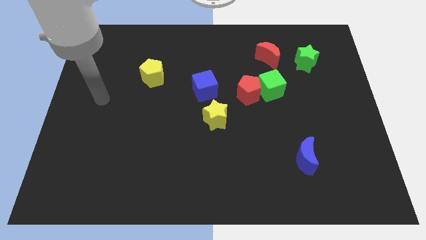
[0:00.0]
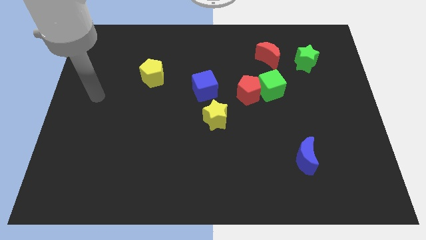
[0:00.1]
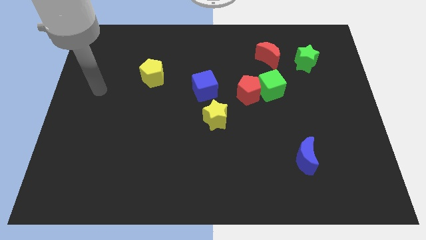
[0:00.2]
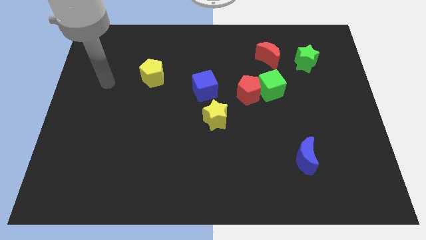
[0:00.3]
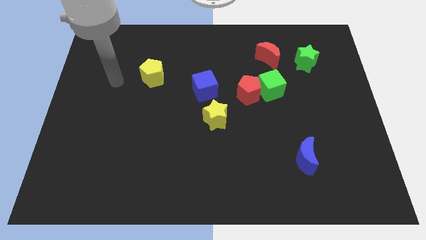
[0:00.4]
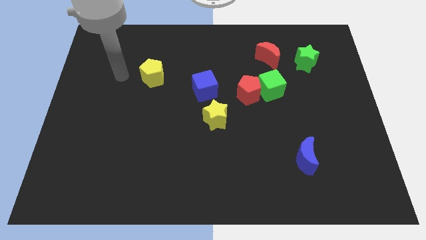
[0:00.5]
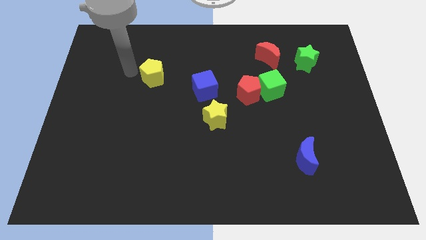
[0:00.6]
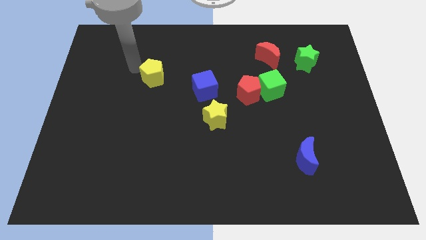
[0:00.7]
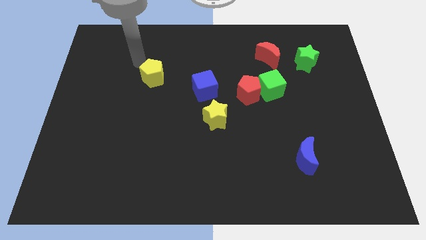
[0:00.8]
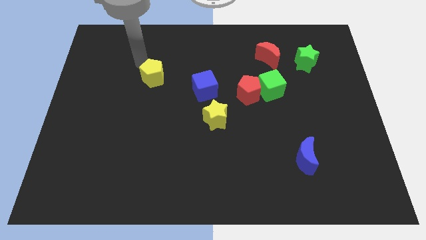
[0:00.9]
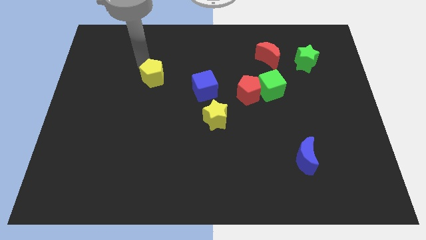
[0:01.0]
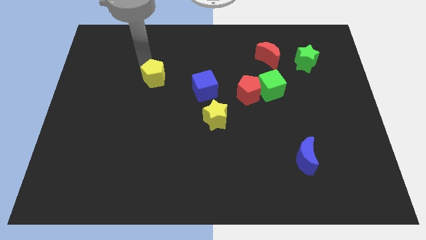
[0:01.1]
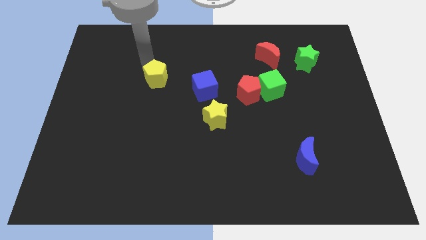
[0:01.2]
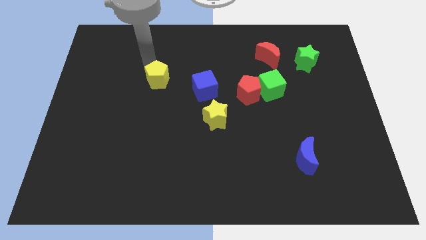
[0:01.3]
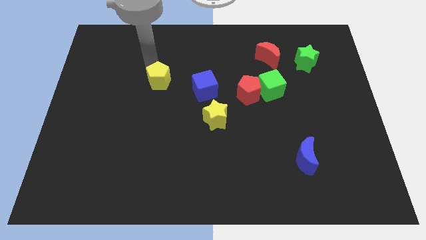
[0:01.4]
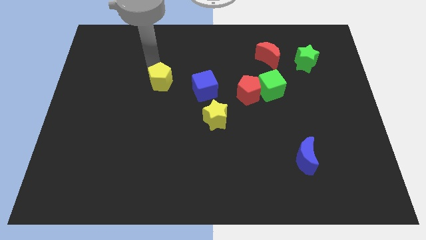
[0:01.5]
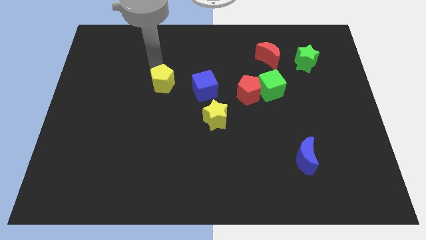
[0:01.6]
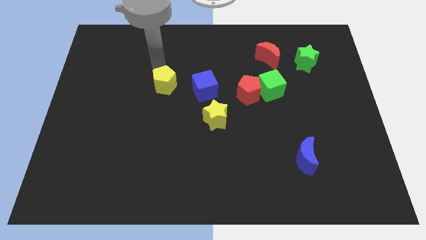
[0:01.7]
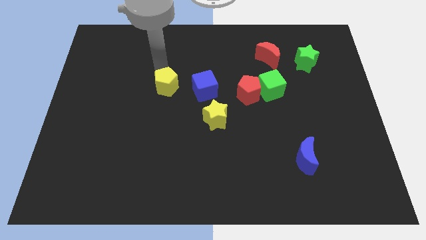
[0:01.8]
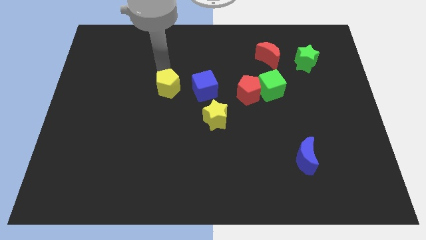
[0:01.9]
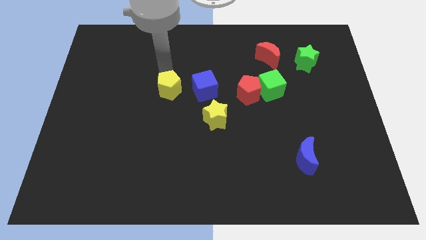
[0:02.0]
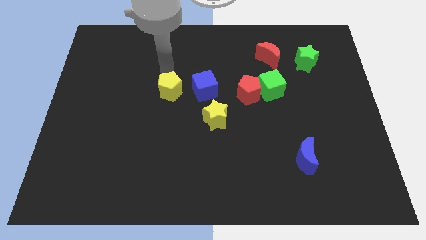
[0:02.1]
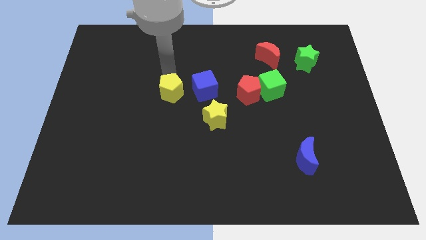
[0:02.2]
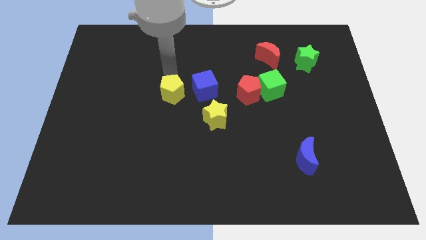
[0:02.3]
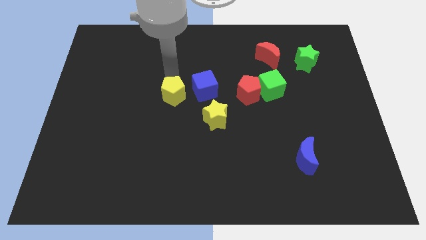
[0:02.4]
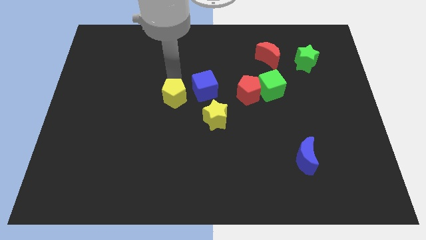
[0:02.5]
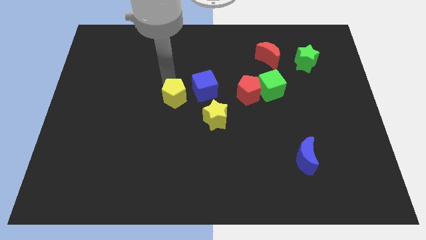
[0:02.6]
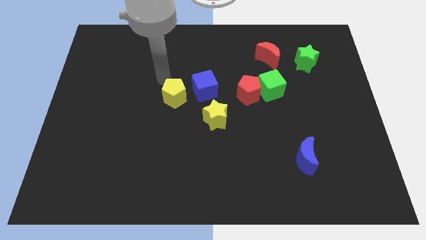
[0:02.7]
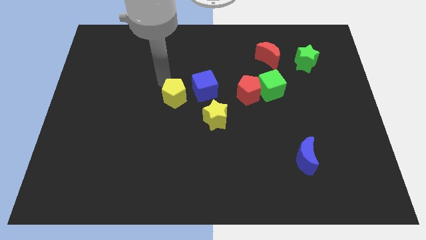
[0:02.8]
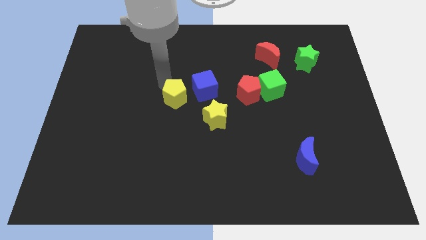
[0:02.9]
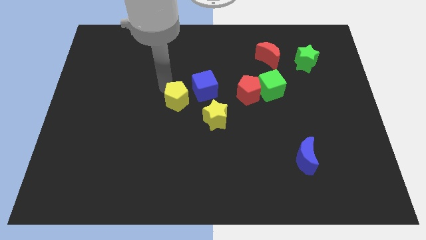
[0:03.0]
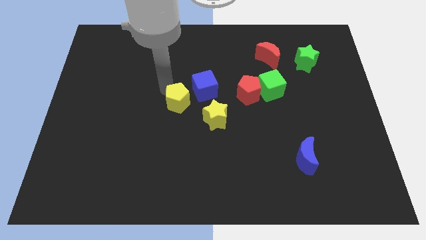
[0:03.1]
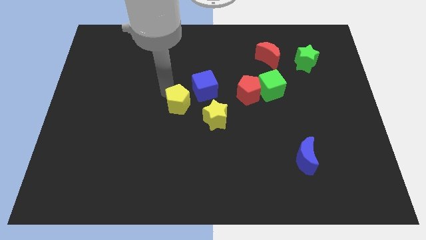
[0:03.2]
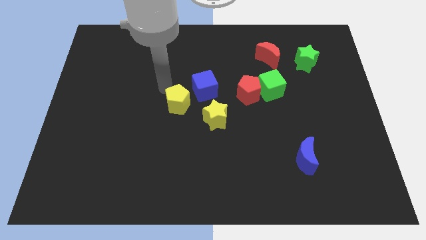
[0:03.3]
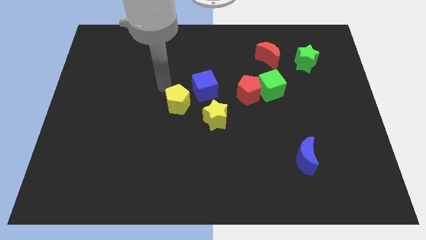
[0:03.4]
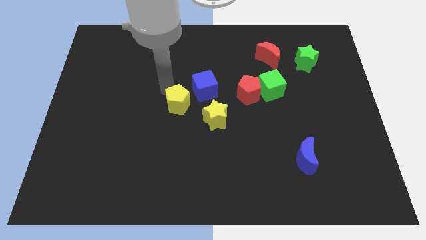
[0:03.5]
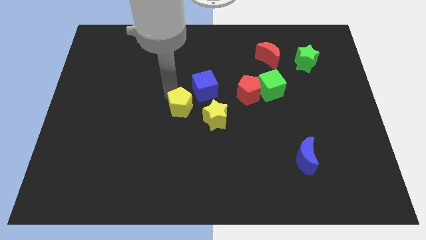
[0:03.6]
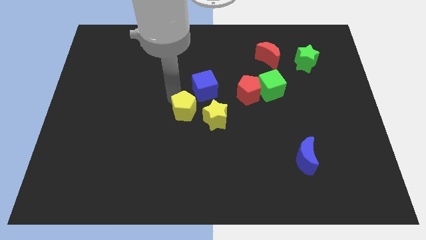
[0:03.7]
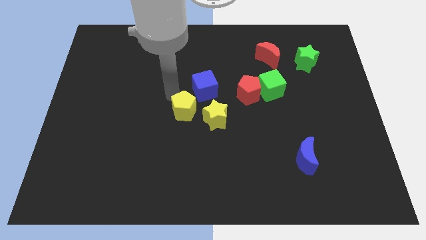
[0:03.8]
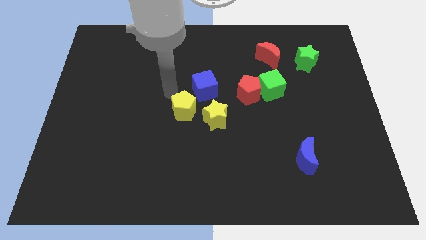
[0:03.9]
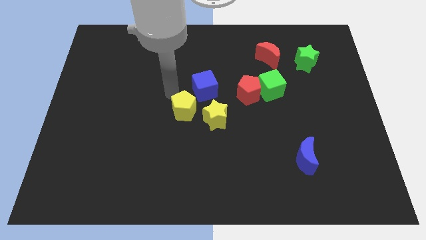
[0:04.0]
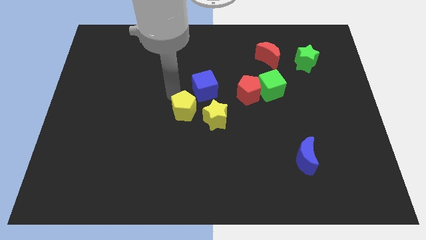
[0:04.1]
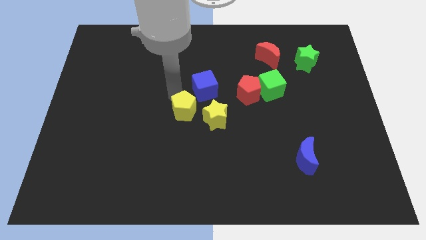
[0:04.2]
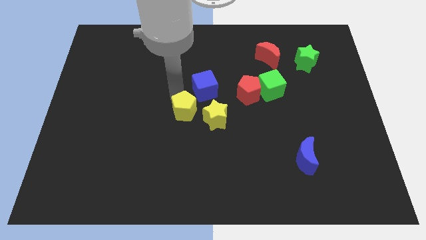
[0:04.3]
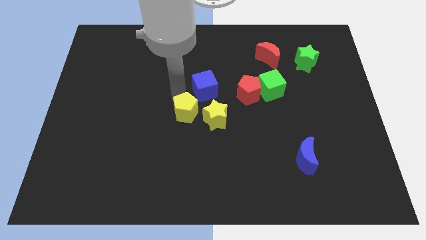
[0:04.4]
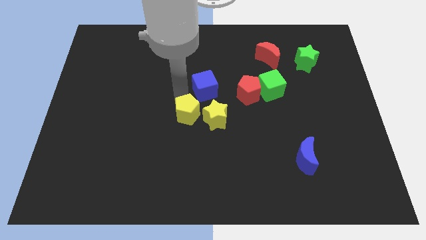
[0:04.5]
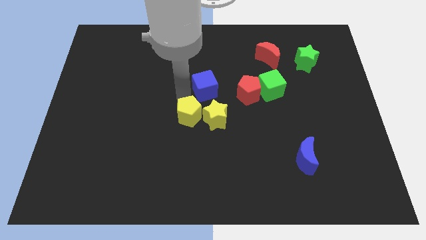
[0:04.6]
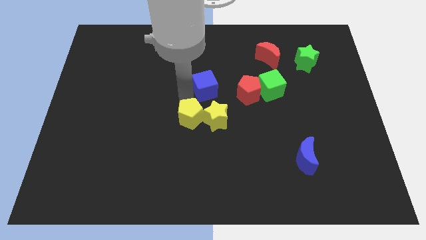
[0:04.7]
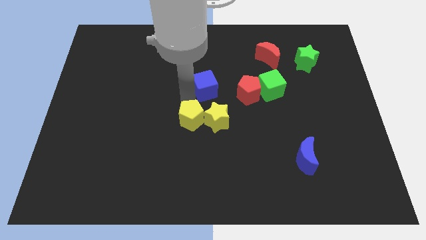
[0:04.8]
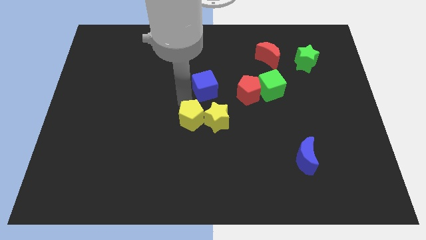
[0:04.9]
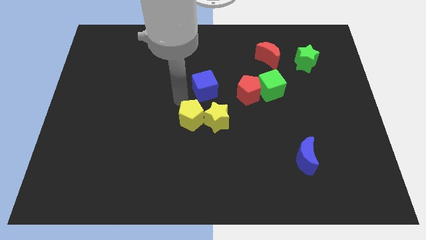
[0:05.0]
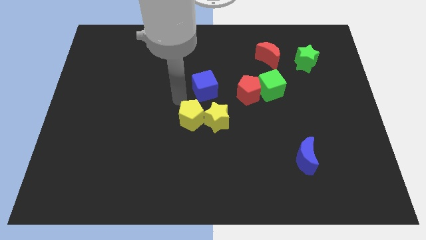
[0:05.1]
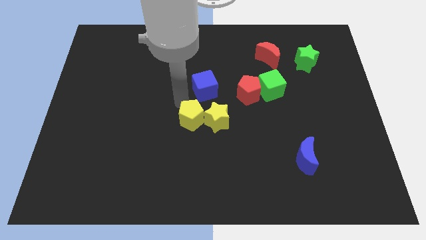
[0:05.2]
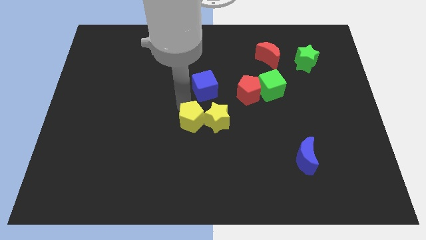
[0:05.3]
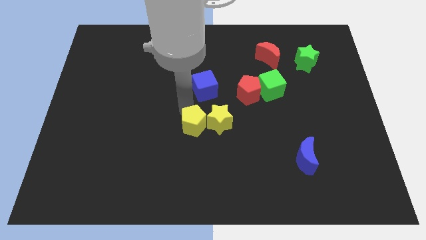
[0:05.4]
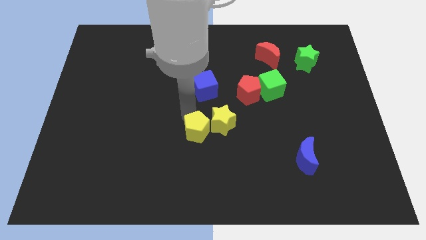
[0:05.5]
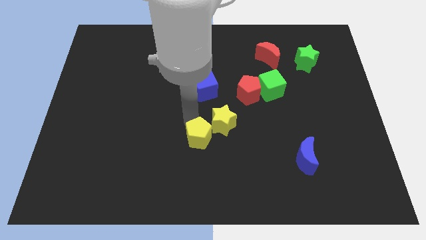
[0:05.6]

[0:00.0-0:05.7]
slide the yellow pentagon diagonally downwards and right

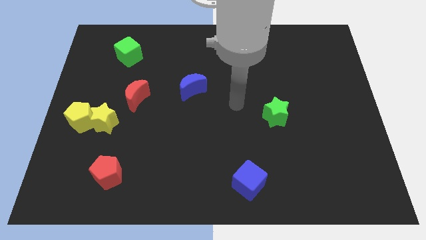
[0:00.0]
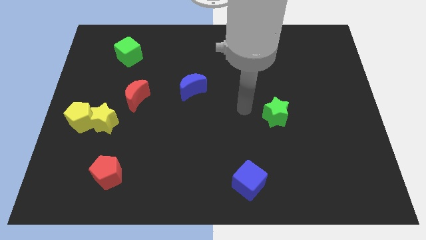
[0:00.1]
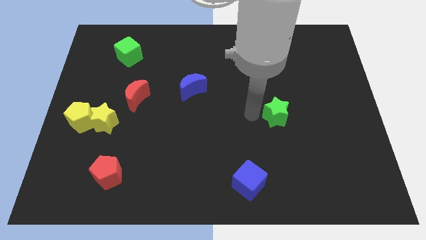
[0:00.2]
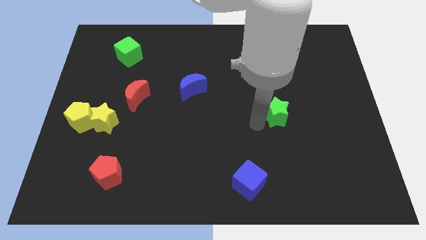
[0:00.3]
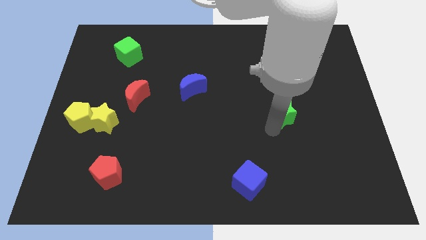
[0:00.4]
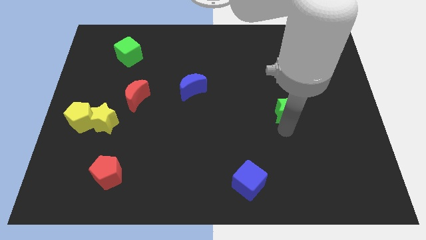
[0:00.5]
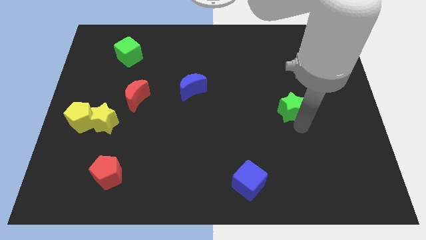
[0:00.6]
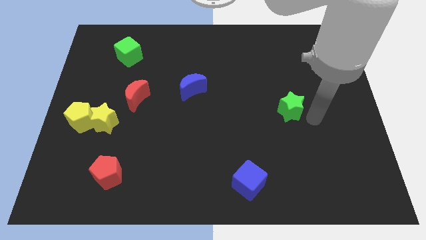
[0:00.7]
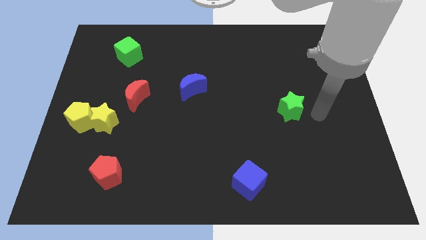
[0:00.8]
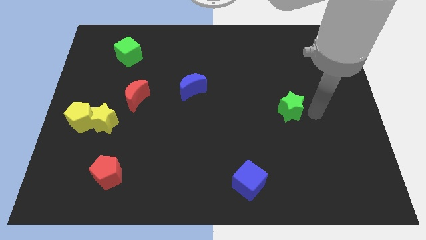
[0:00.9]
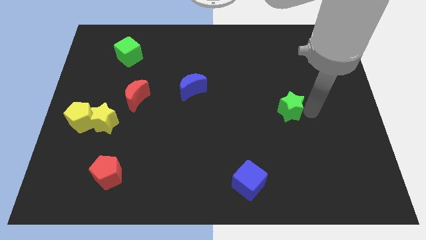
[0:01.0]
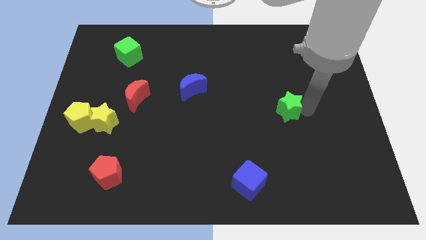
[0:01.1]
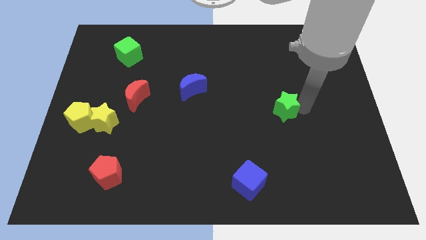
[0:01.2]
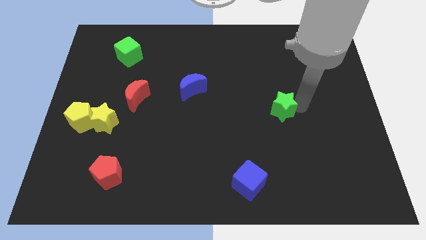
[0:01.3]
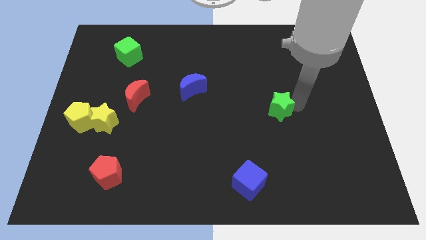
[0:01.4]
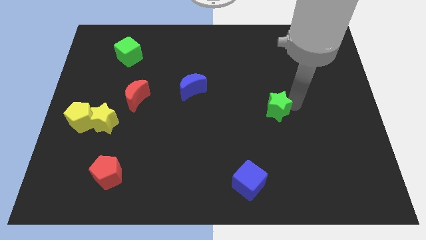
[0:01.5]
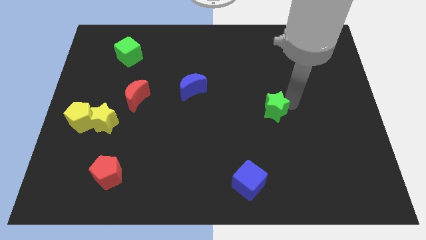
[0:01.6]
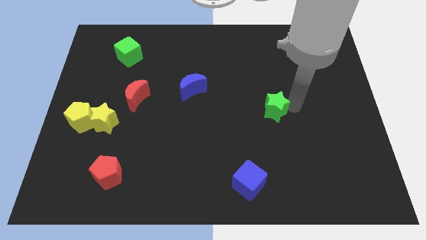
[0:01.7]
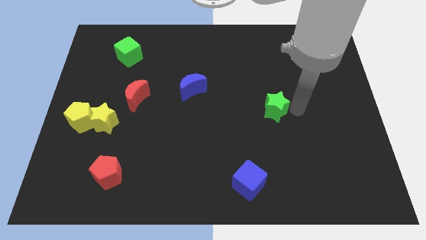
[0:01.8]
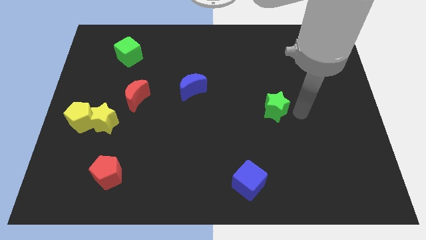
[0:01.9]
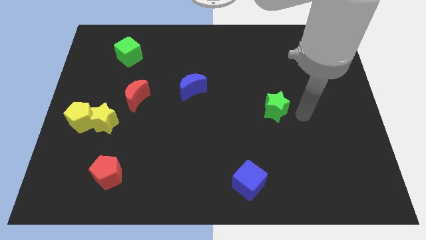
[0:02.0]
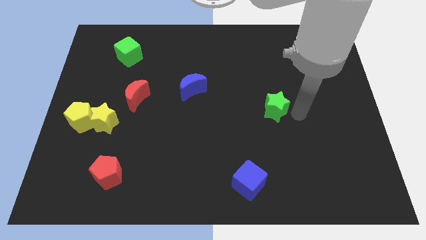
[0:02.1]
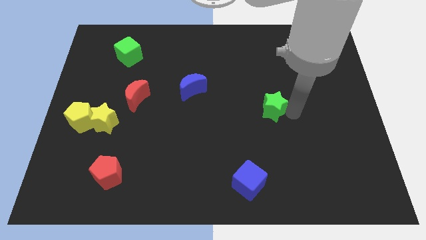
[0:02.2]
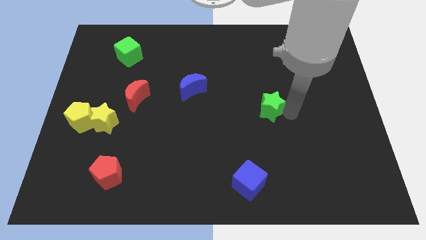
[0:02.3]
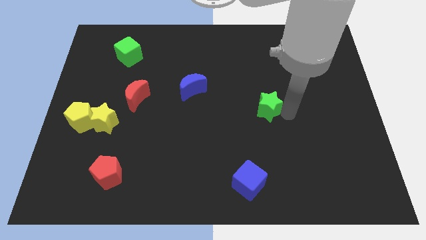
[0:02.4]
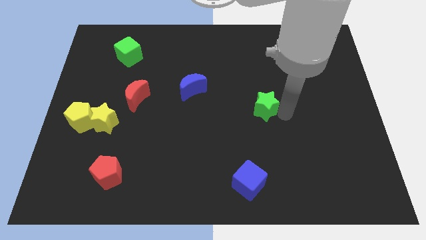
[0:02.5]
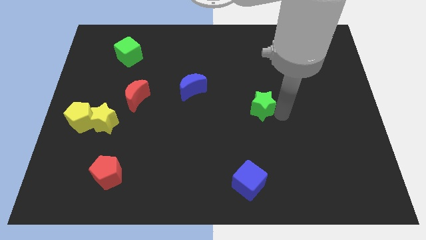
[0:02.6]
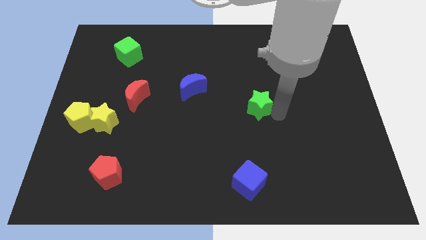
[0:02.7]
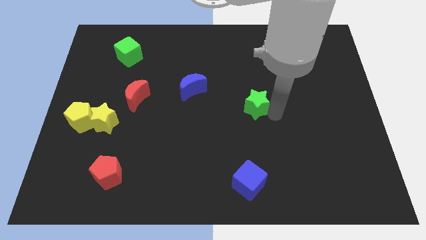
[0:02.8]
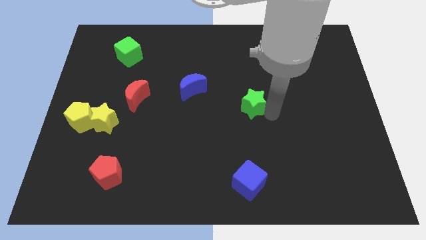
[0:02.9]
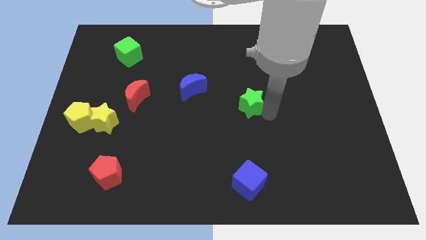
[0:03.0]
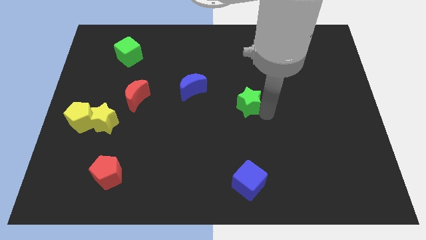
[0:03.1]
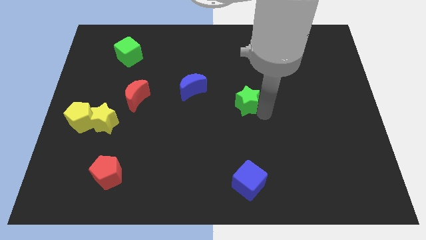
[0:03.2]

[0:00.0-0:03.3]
move the green star diagonally up and left a little
